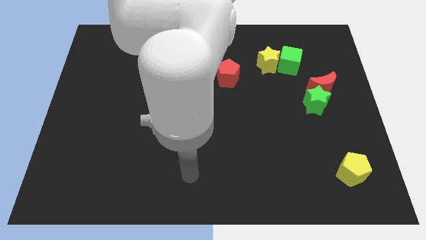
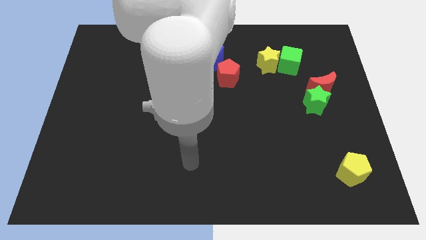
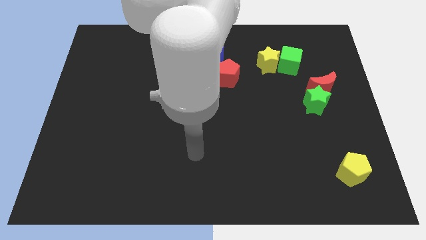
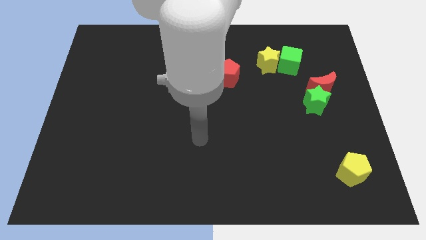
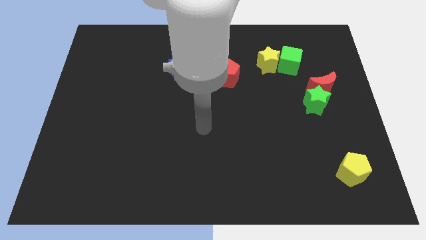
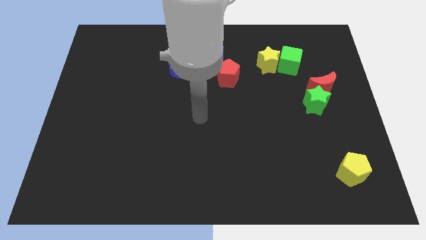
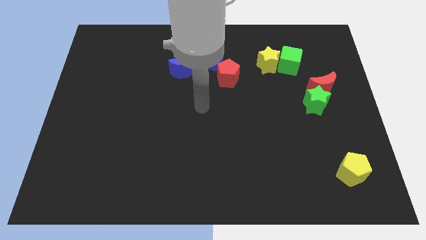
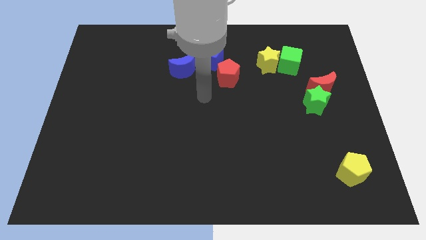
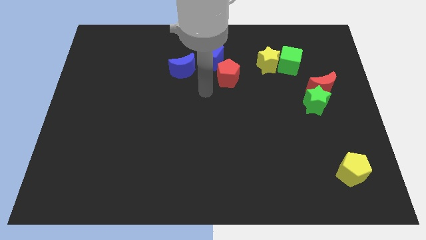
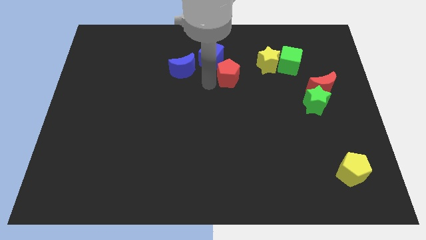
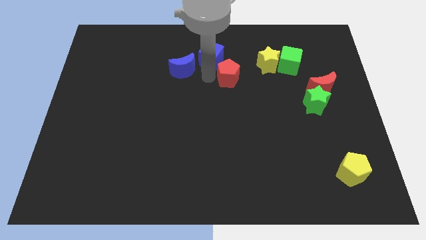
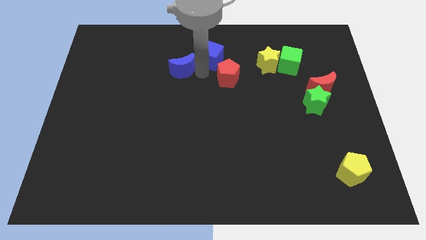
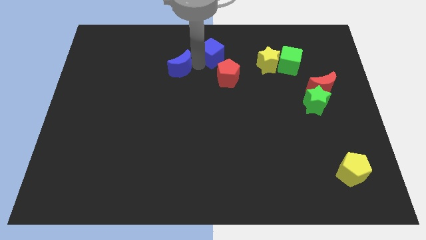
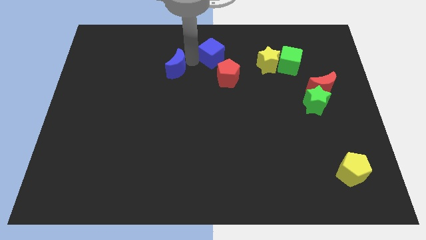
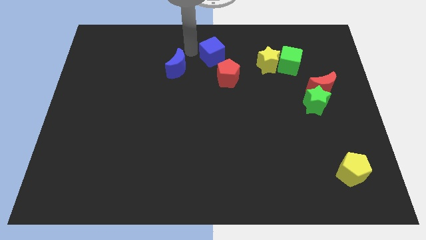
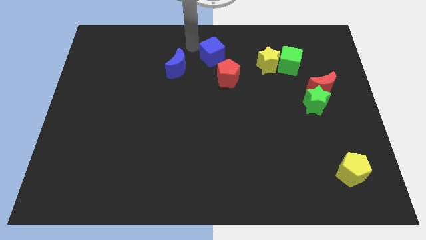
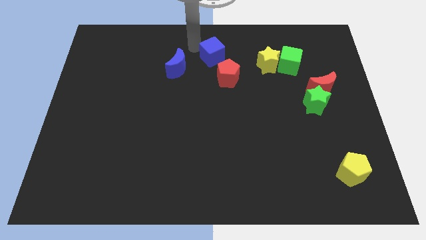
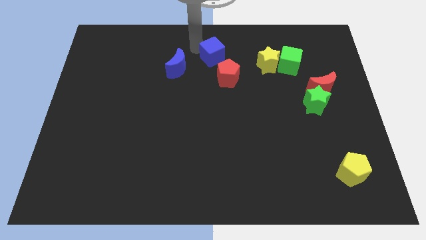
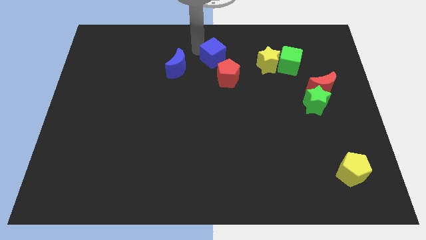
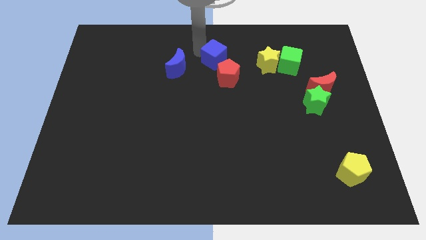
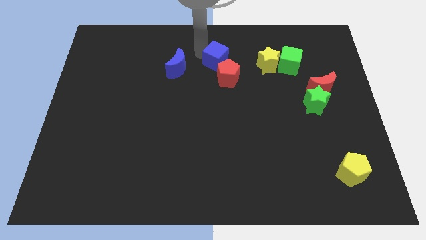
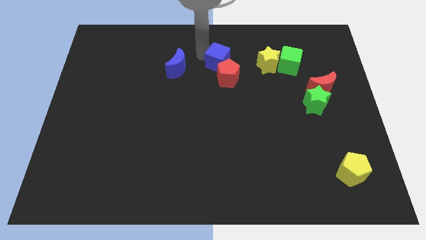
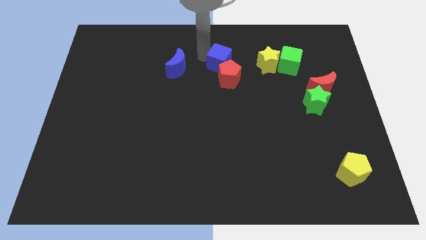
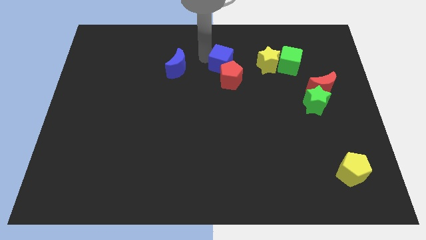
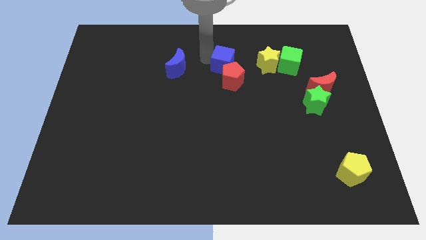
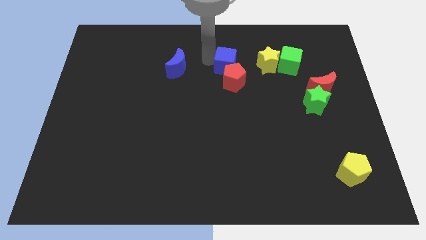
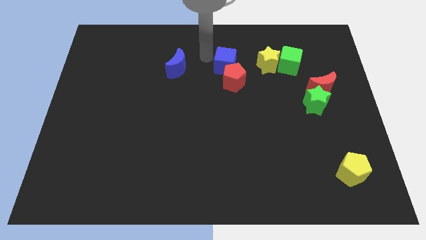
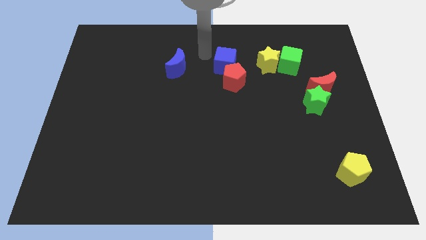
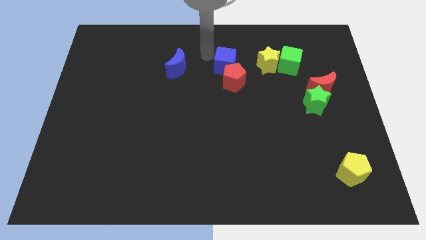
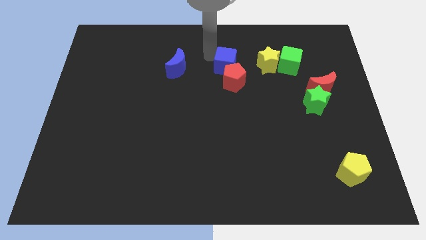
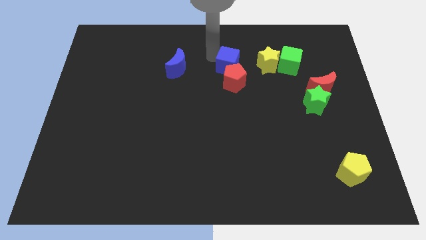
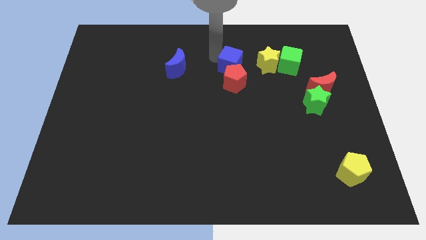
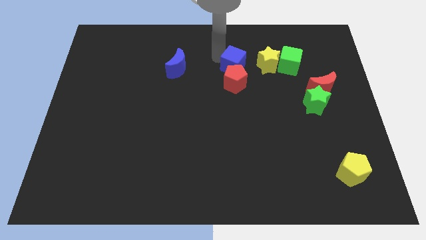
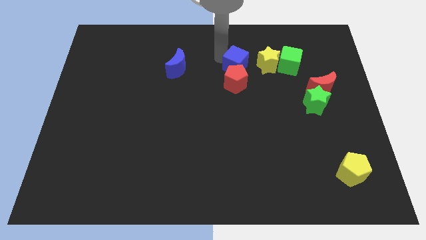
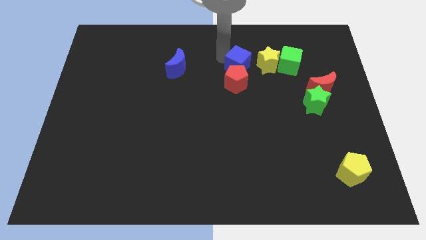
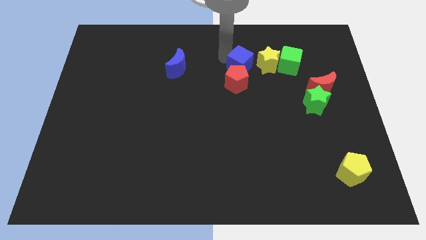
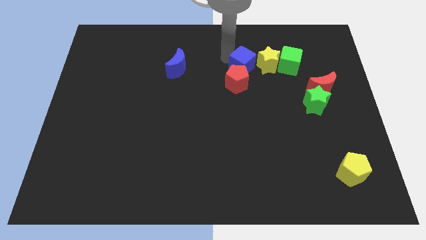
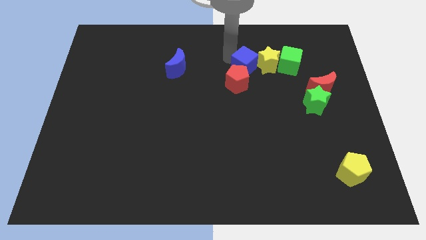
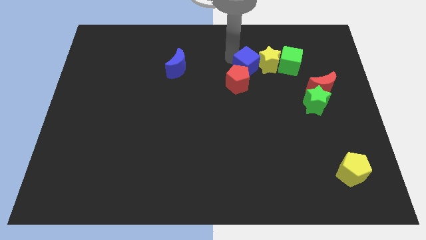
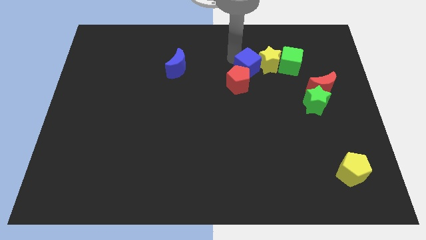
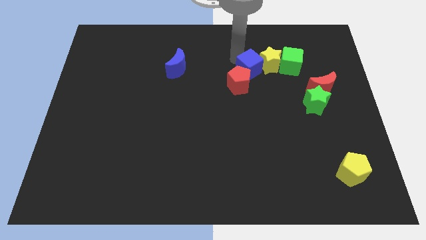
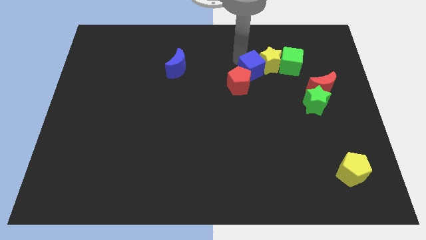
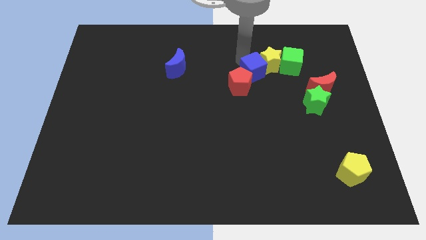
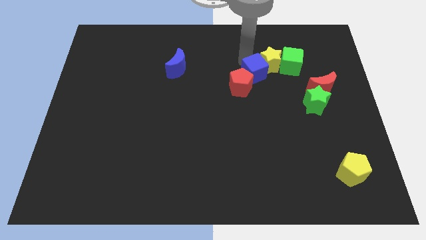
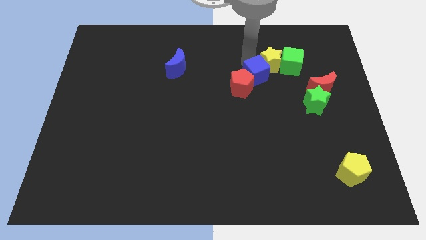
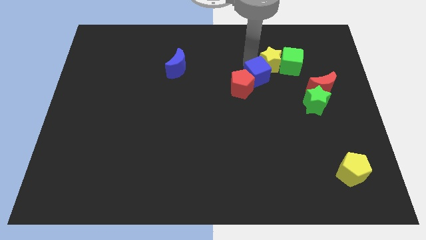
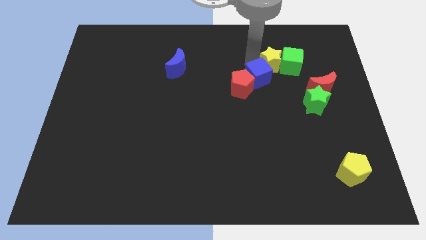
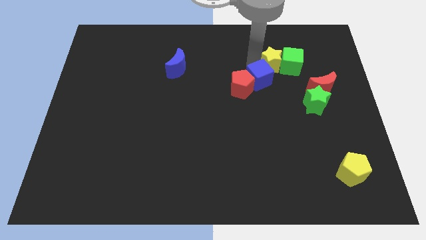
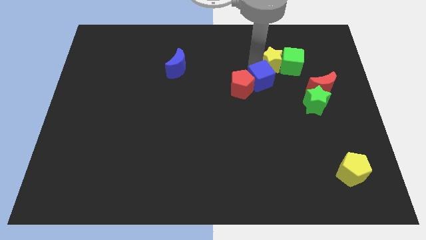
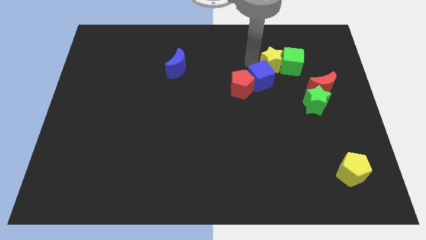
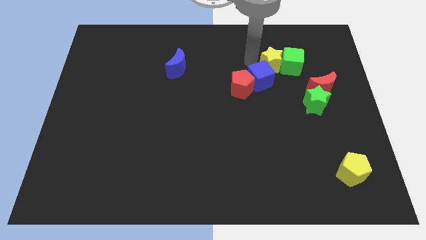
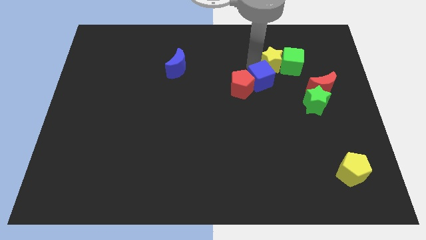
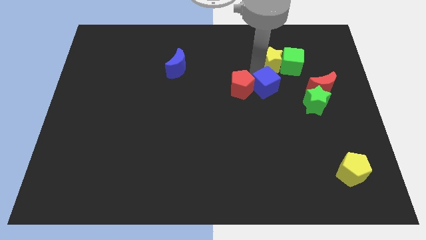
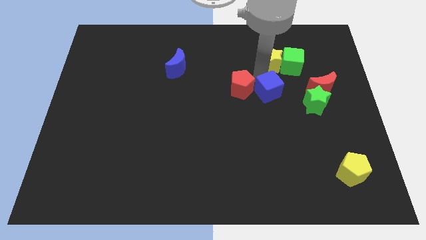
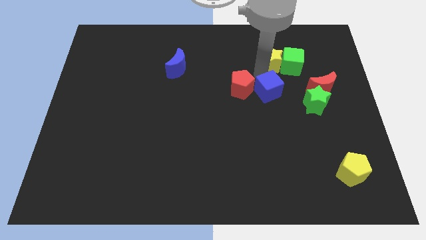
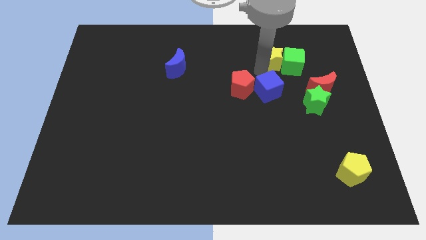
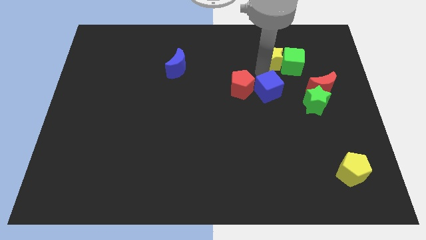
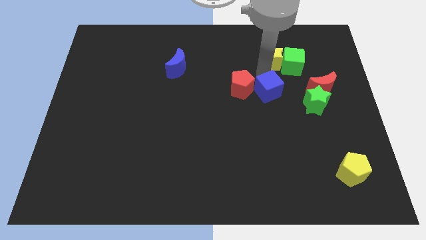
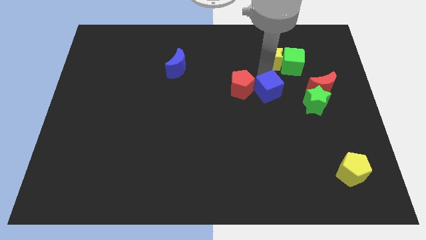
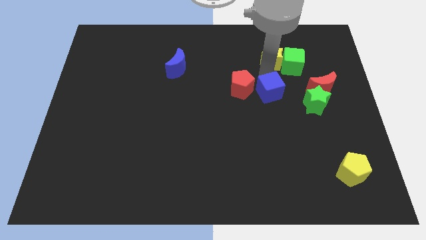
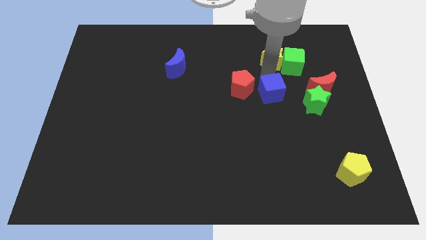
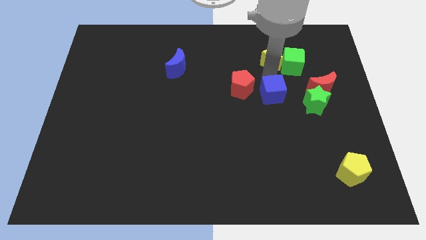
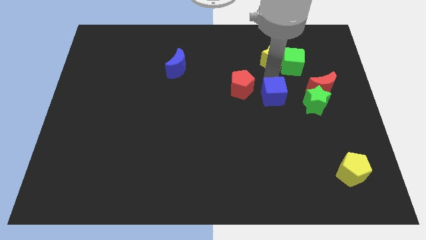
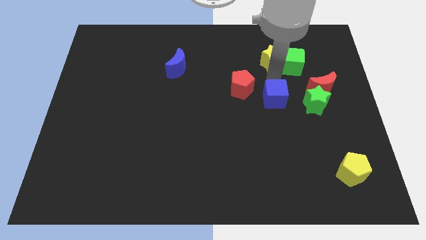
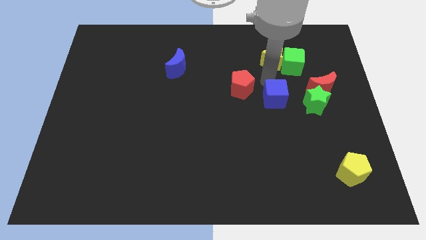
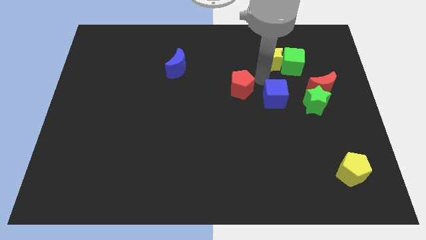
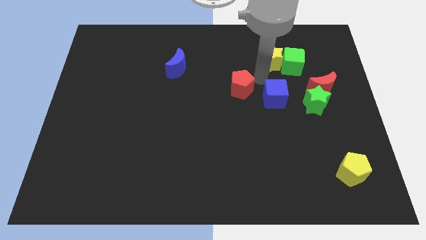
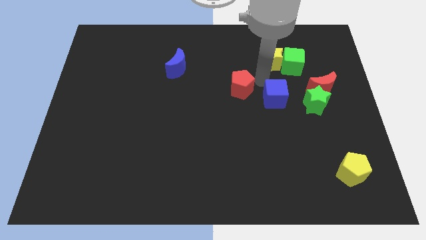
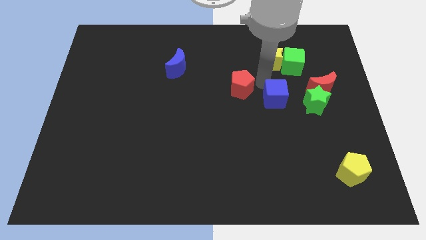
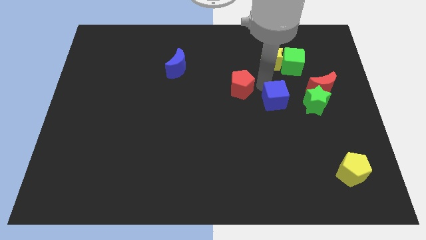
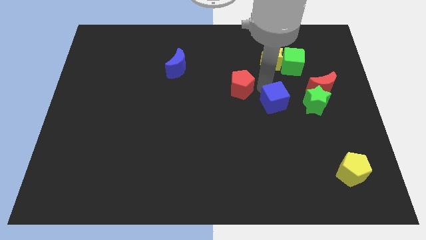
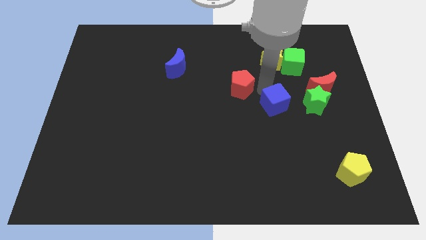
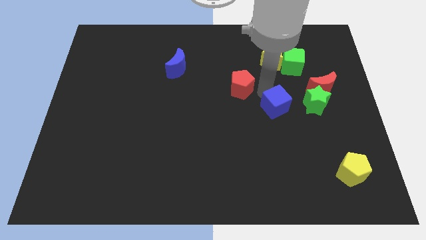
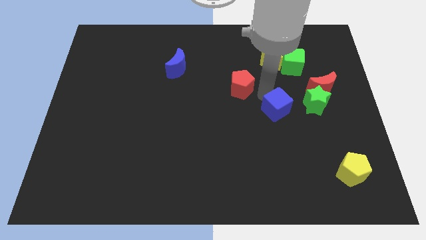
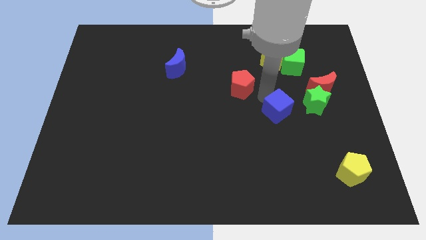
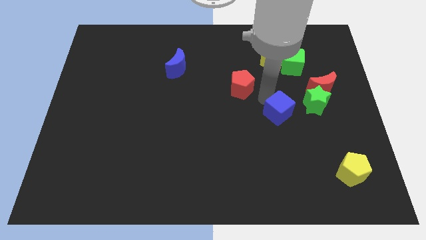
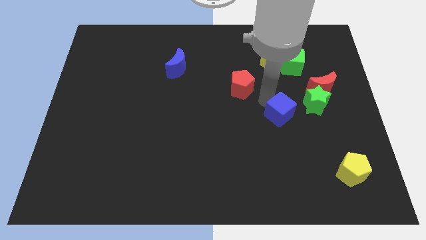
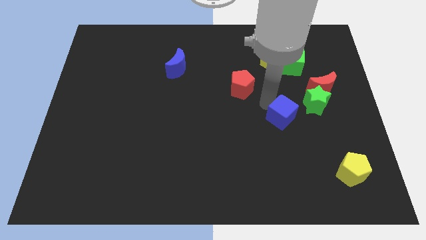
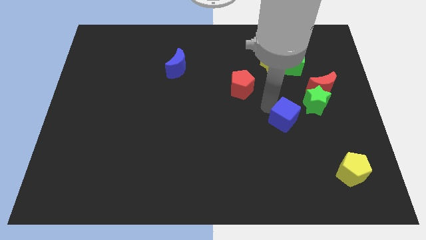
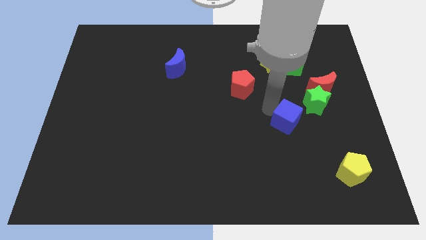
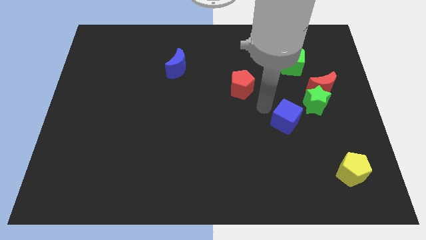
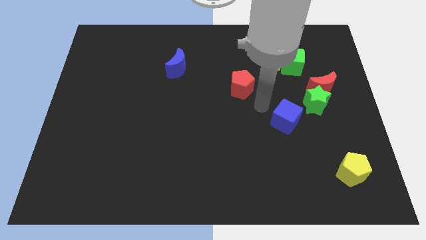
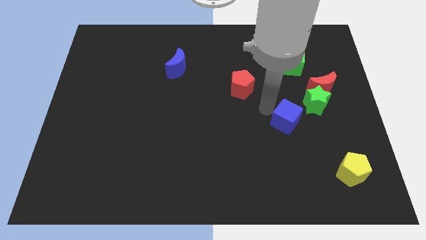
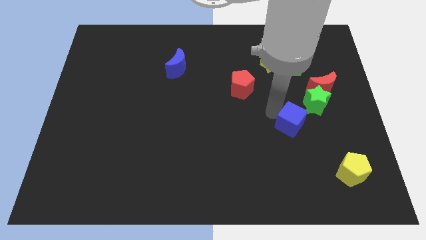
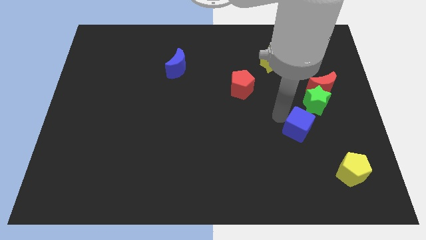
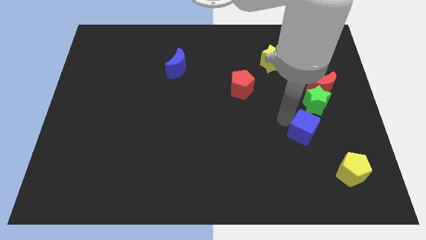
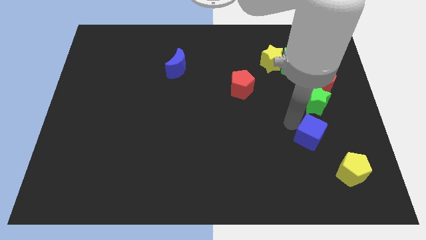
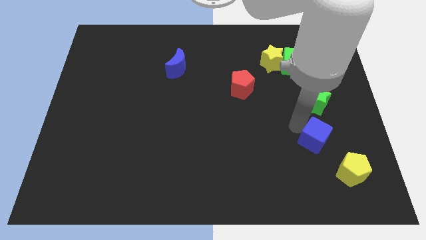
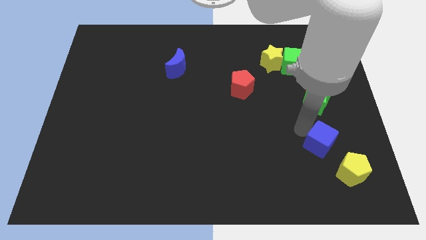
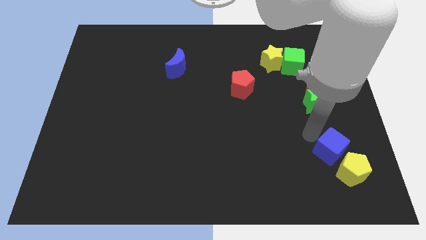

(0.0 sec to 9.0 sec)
put the blue cube towards the yellow pentagon
